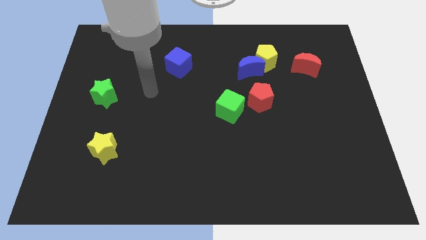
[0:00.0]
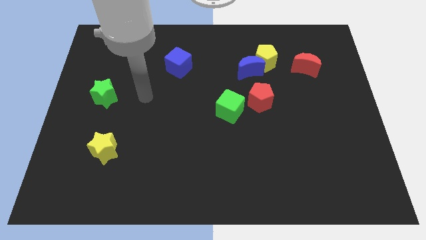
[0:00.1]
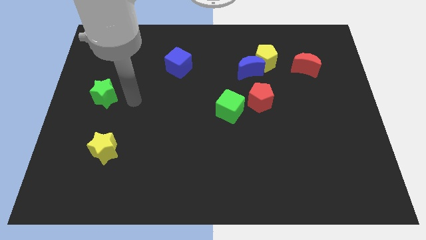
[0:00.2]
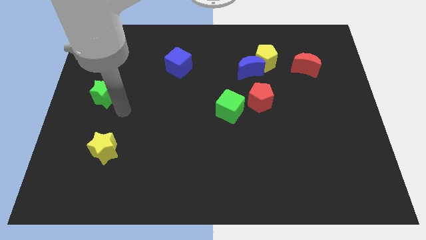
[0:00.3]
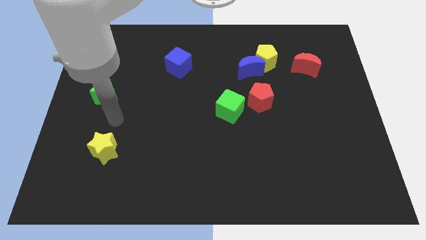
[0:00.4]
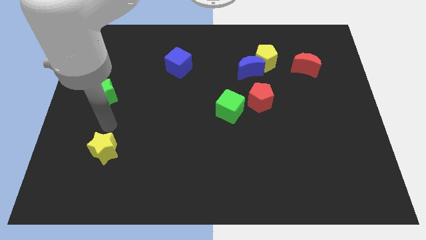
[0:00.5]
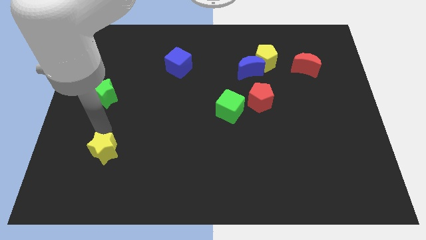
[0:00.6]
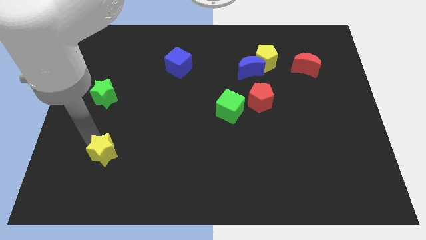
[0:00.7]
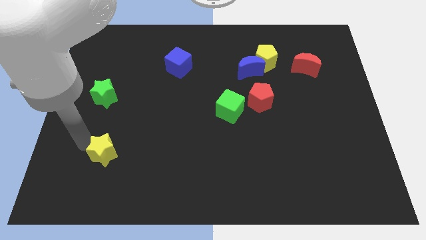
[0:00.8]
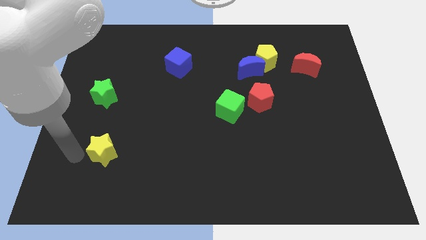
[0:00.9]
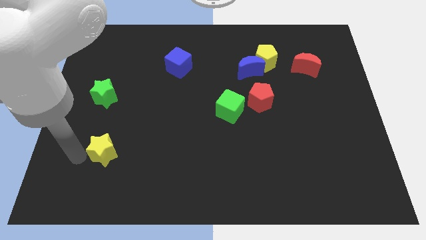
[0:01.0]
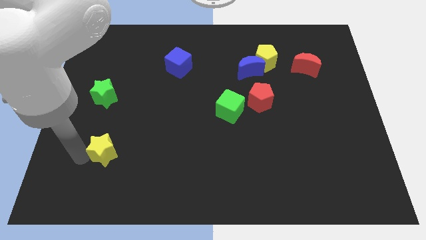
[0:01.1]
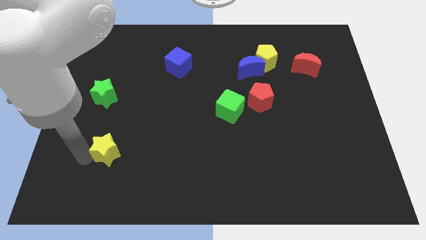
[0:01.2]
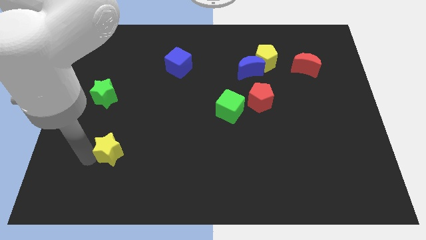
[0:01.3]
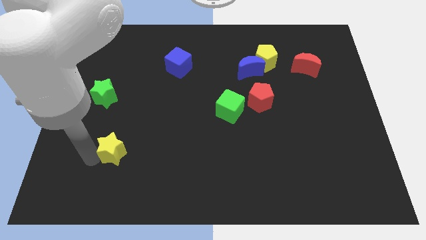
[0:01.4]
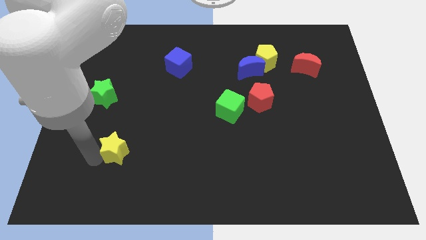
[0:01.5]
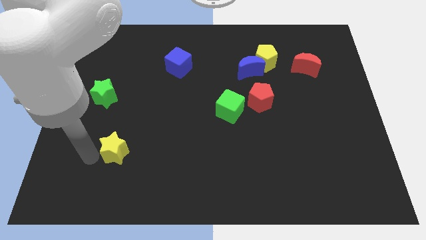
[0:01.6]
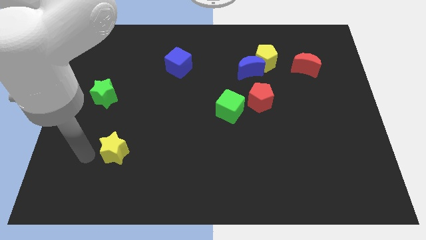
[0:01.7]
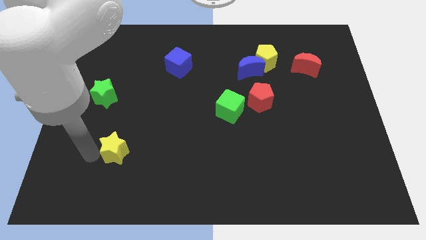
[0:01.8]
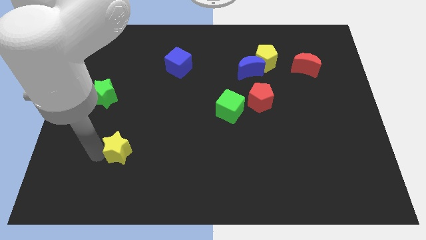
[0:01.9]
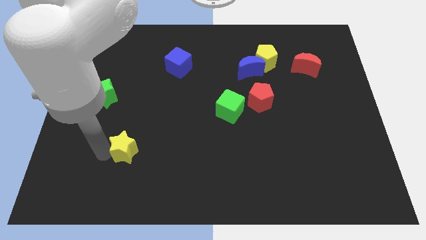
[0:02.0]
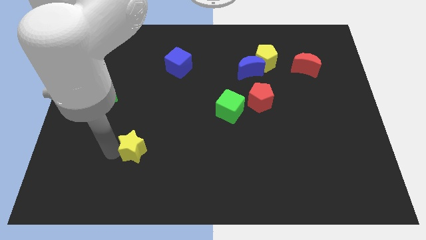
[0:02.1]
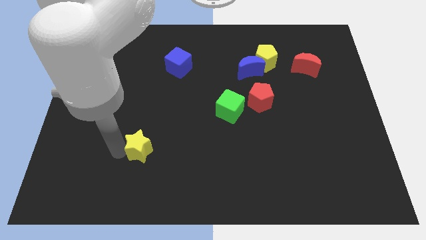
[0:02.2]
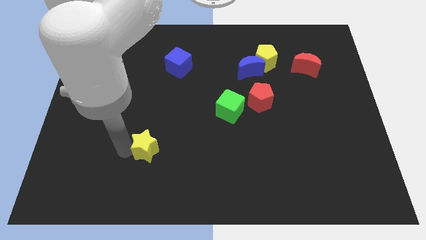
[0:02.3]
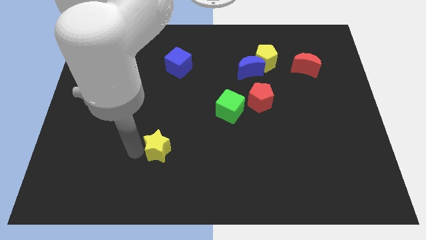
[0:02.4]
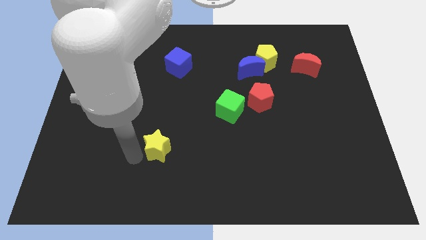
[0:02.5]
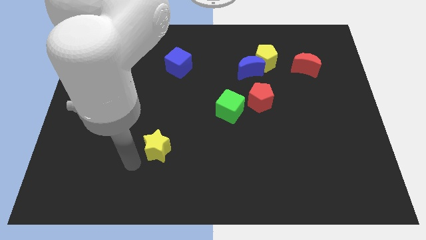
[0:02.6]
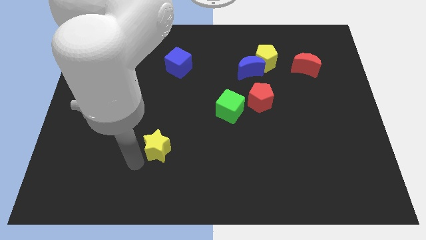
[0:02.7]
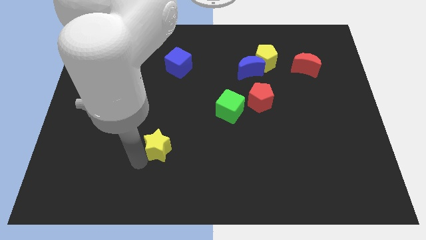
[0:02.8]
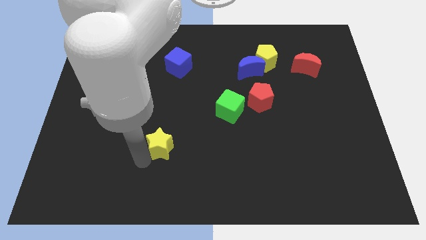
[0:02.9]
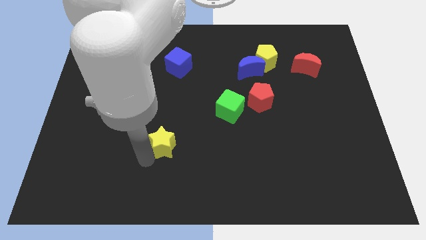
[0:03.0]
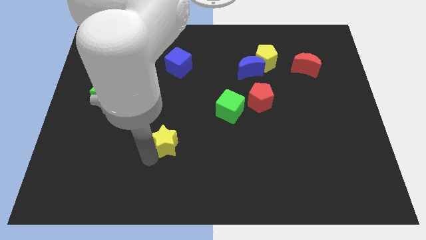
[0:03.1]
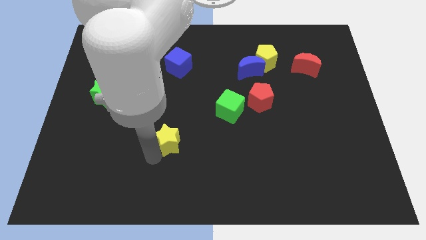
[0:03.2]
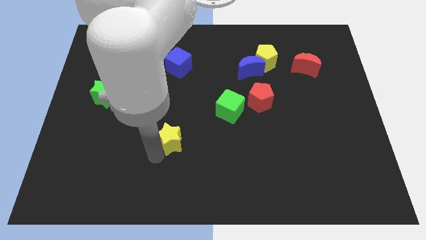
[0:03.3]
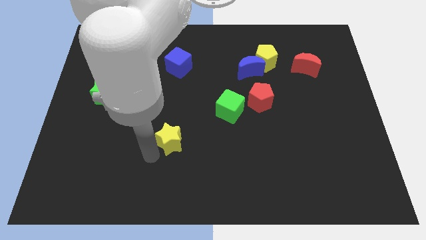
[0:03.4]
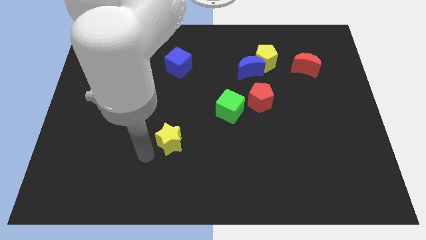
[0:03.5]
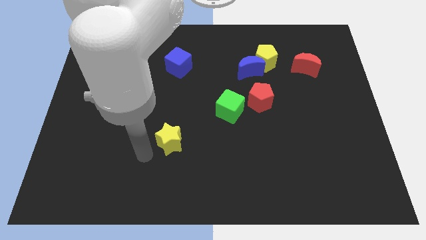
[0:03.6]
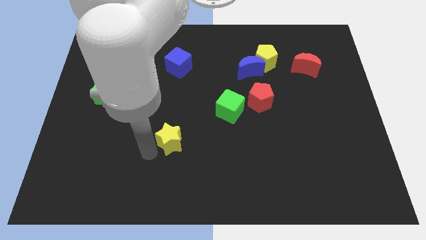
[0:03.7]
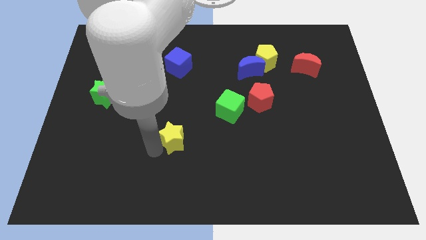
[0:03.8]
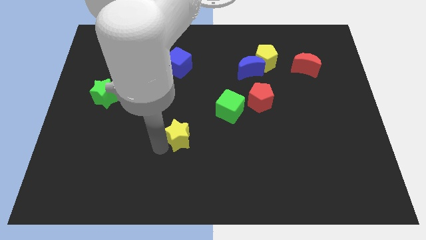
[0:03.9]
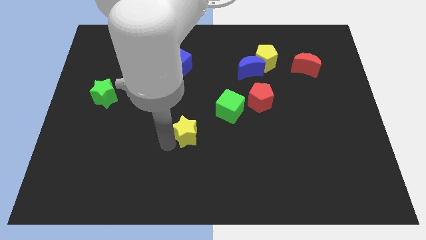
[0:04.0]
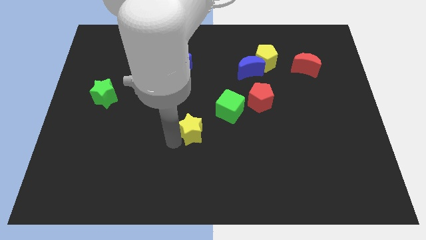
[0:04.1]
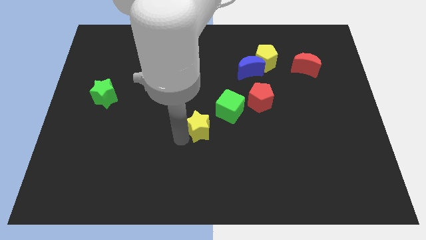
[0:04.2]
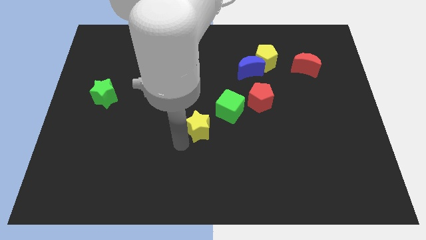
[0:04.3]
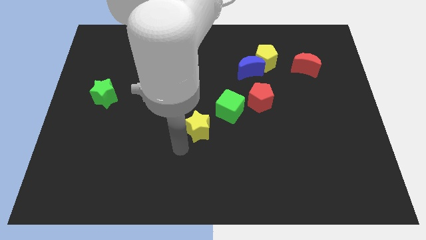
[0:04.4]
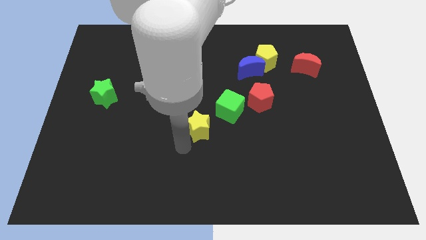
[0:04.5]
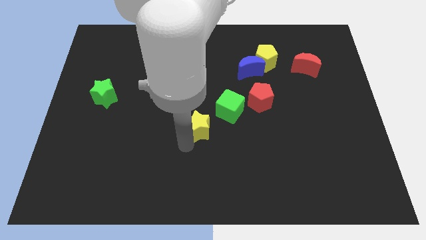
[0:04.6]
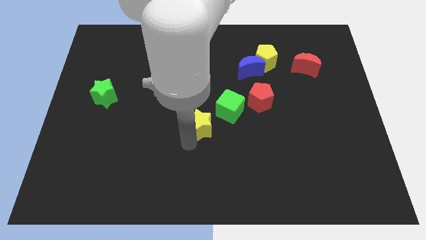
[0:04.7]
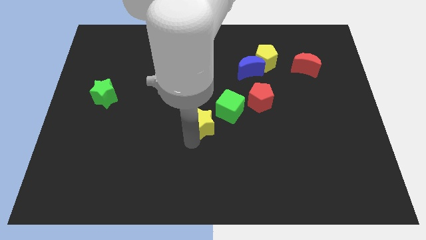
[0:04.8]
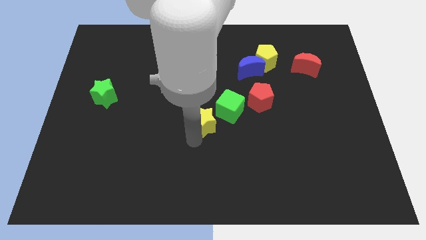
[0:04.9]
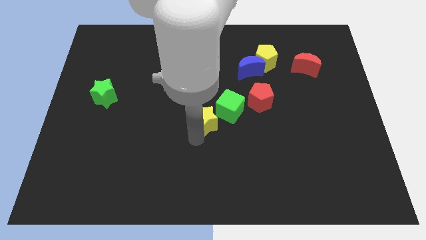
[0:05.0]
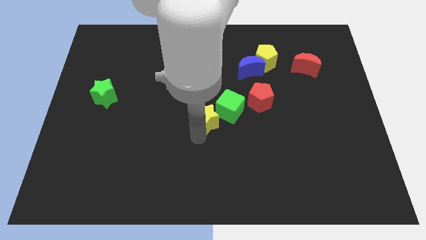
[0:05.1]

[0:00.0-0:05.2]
push the yellow star towards the green cube

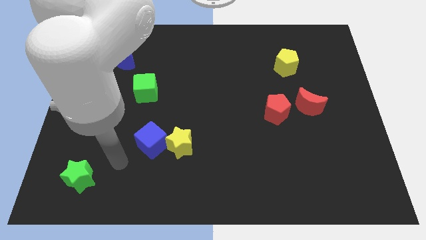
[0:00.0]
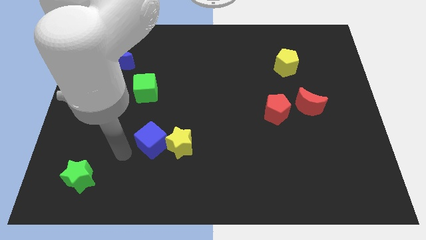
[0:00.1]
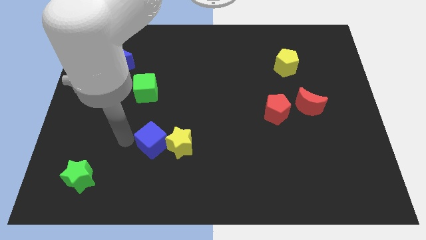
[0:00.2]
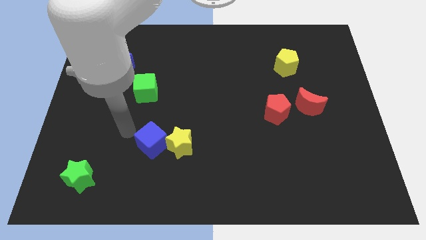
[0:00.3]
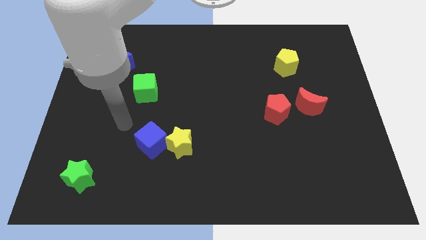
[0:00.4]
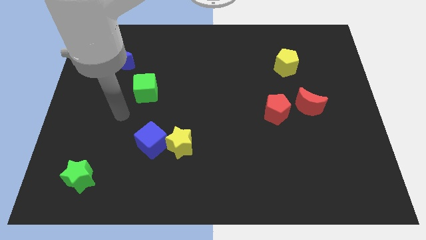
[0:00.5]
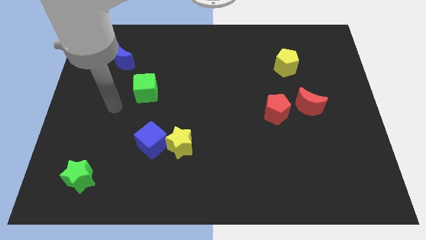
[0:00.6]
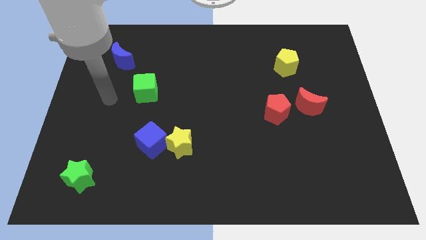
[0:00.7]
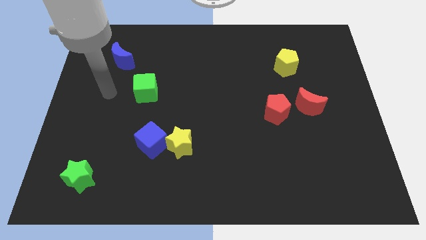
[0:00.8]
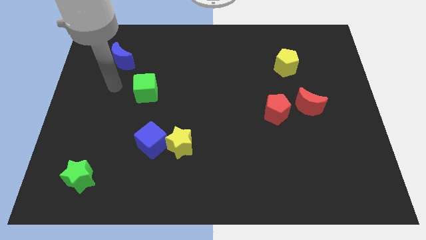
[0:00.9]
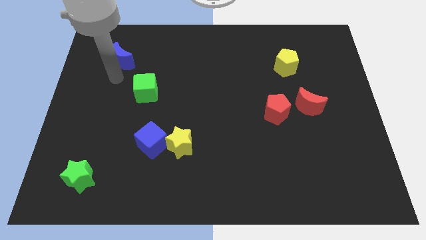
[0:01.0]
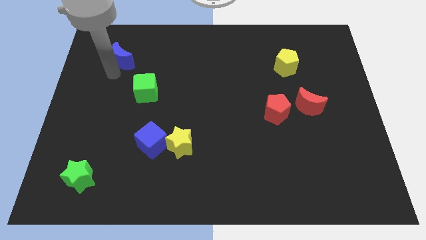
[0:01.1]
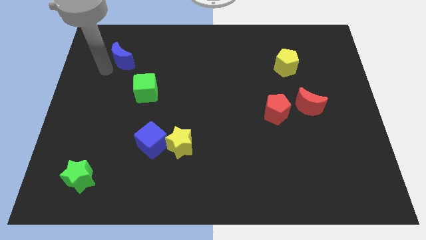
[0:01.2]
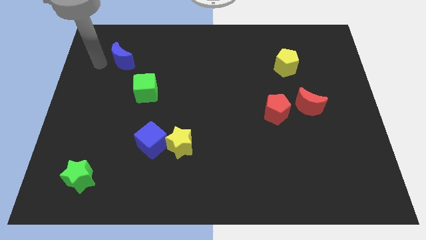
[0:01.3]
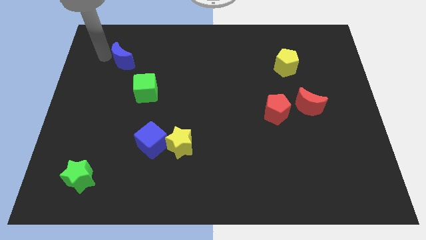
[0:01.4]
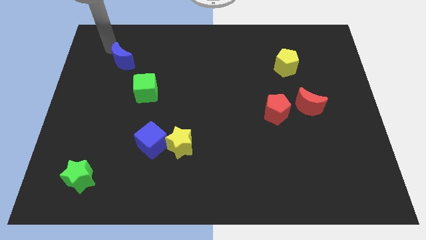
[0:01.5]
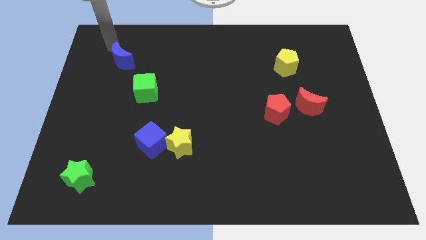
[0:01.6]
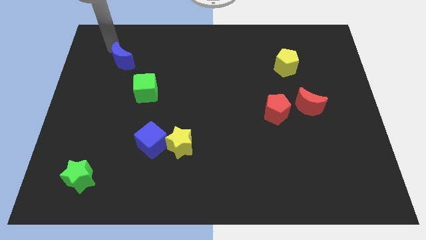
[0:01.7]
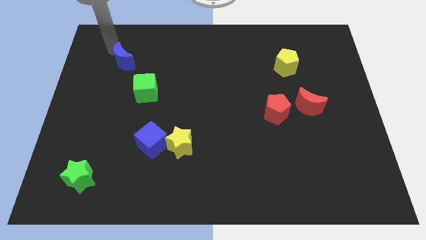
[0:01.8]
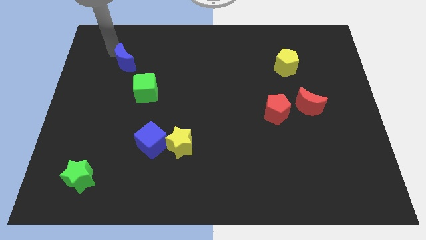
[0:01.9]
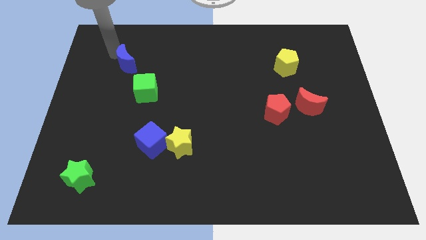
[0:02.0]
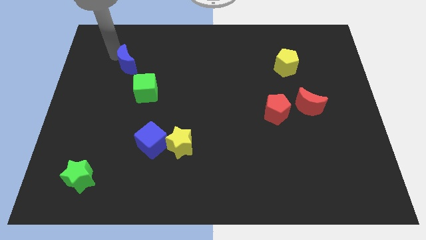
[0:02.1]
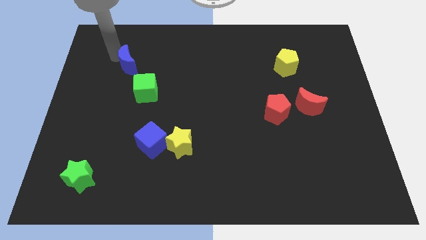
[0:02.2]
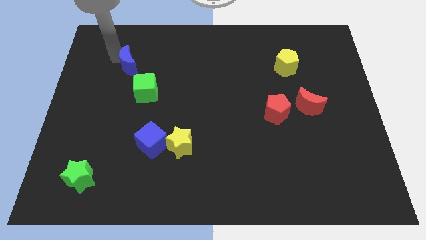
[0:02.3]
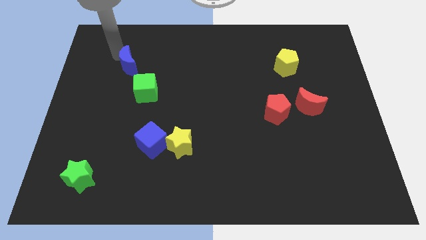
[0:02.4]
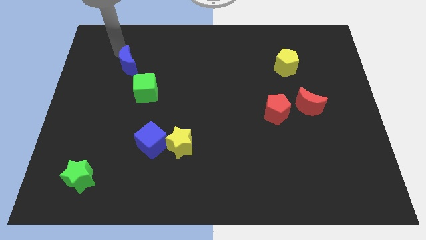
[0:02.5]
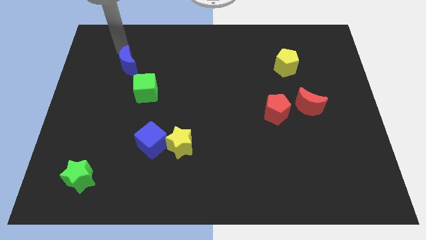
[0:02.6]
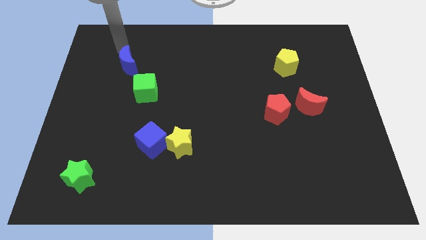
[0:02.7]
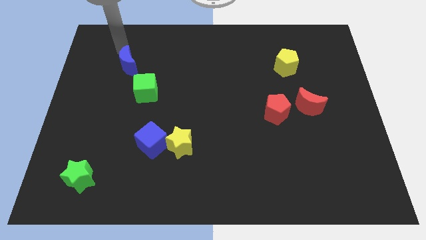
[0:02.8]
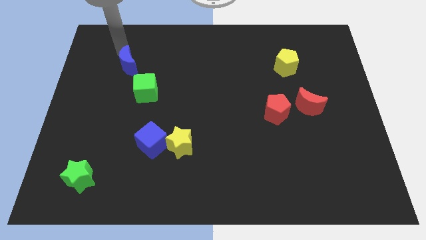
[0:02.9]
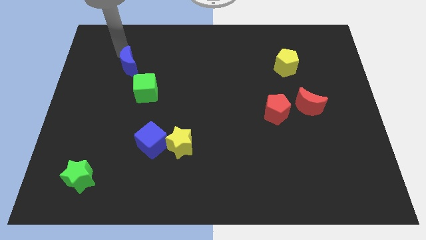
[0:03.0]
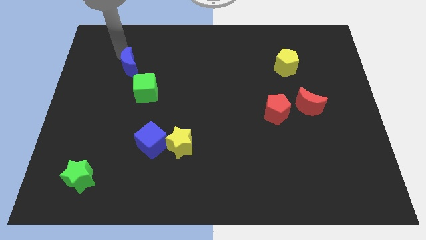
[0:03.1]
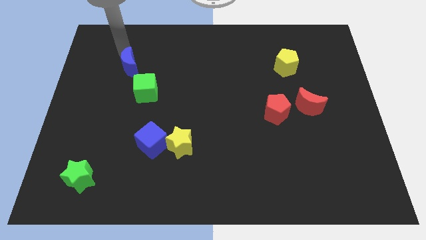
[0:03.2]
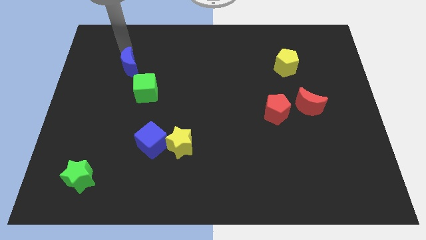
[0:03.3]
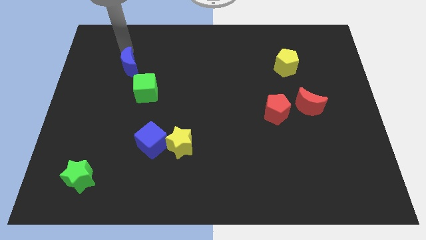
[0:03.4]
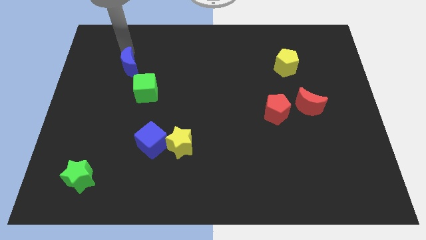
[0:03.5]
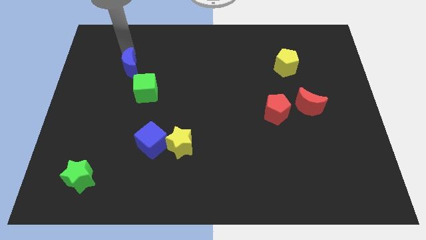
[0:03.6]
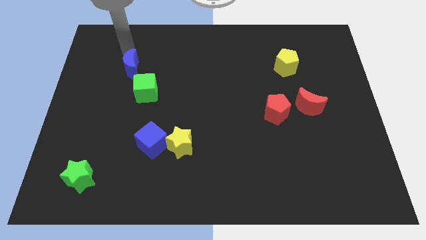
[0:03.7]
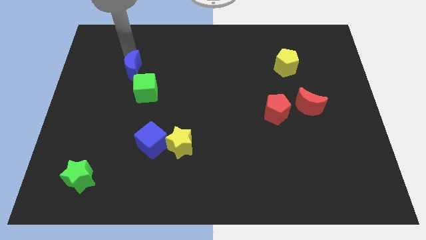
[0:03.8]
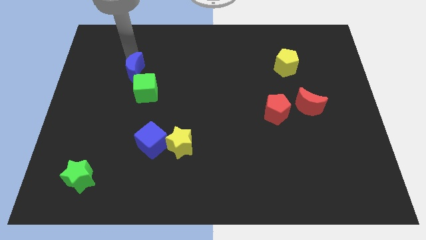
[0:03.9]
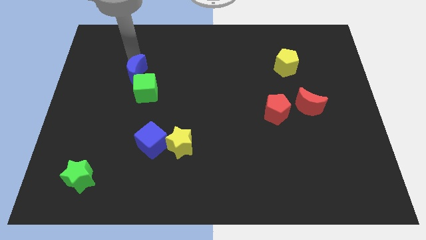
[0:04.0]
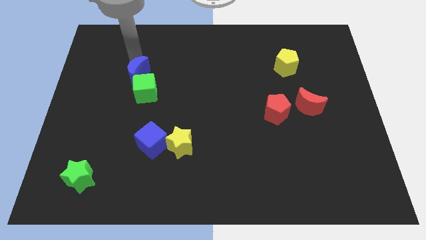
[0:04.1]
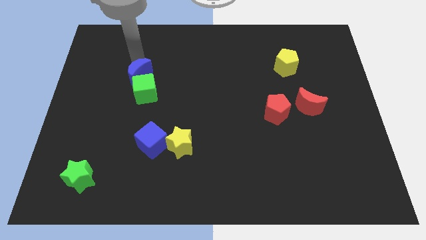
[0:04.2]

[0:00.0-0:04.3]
push the blue moon to the green cube
